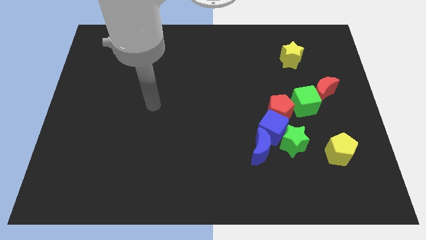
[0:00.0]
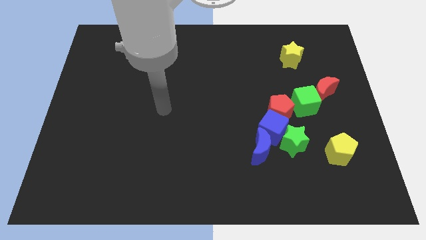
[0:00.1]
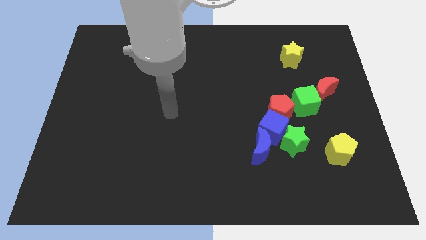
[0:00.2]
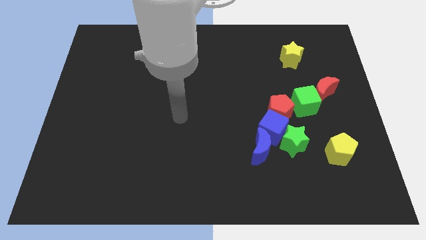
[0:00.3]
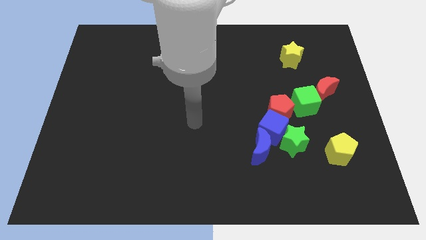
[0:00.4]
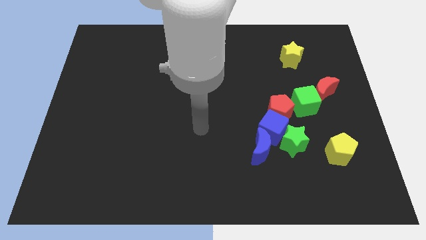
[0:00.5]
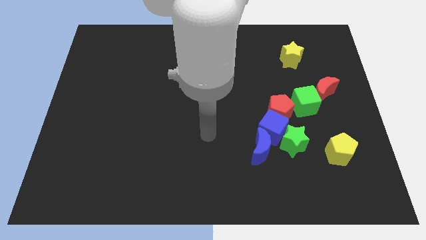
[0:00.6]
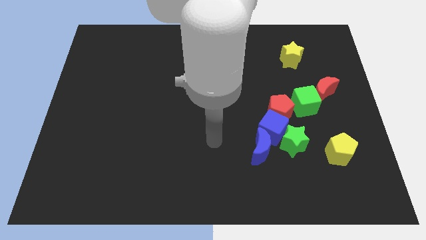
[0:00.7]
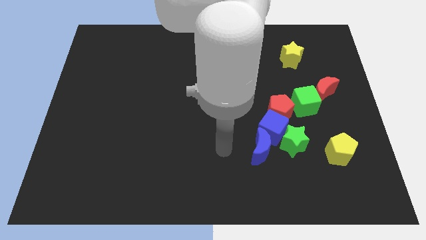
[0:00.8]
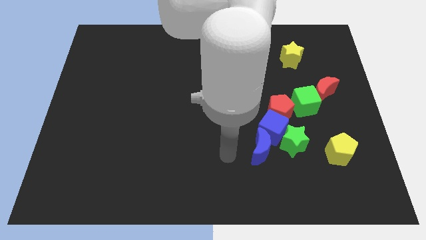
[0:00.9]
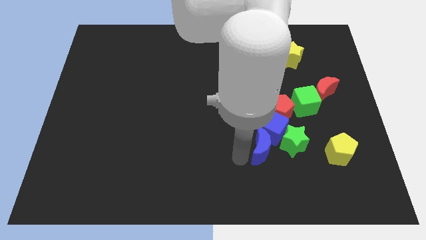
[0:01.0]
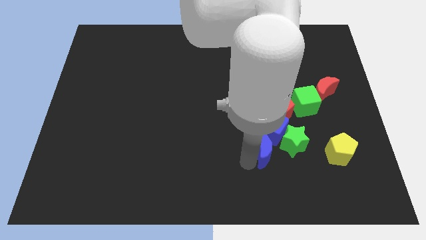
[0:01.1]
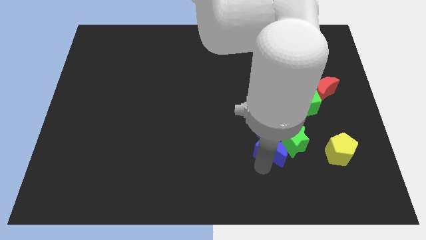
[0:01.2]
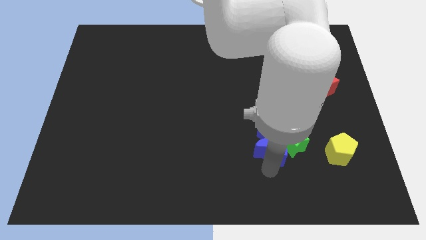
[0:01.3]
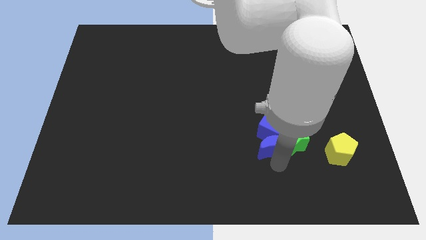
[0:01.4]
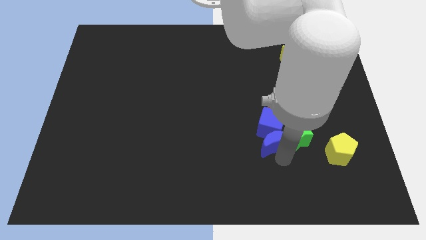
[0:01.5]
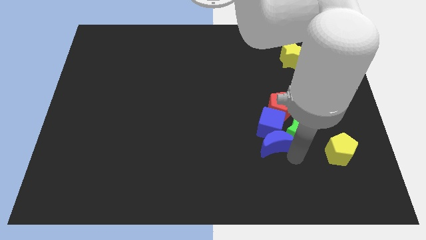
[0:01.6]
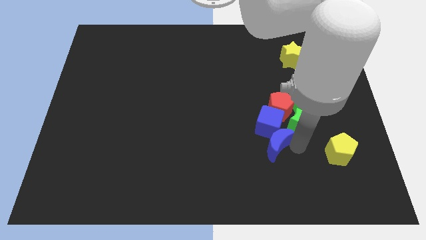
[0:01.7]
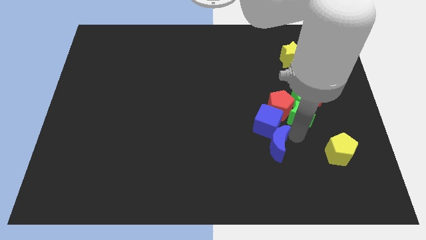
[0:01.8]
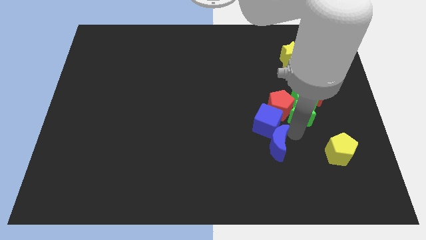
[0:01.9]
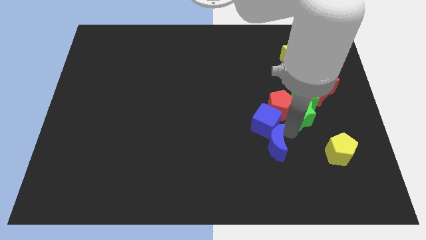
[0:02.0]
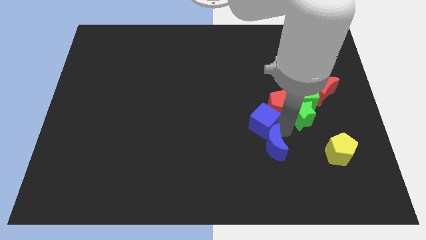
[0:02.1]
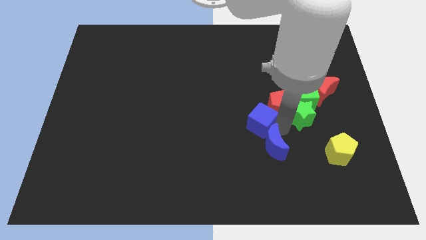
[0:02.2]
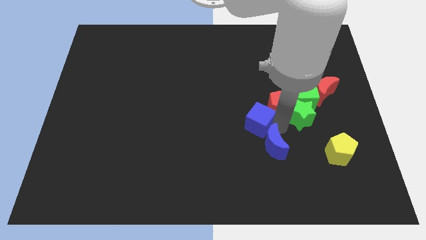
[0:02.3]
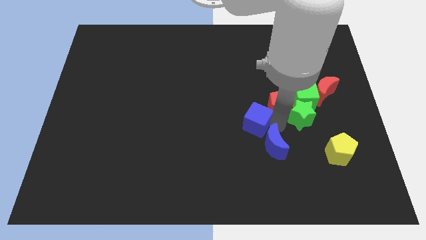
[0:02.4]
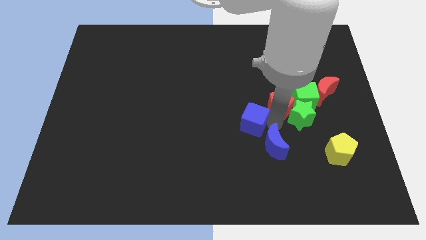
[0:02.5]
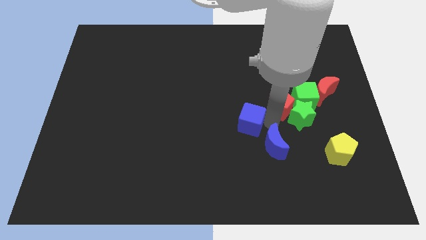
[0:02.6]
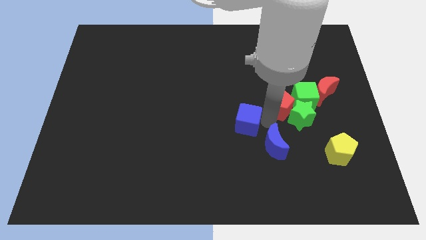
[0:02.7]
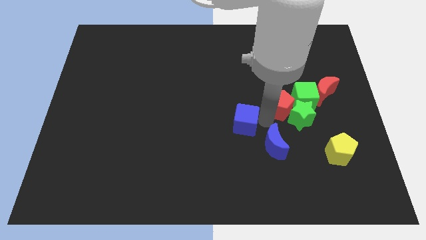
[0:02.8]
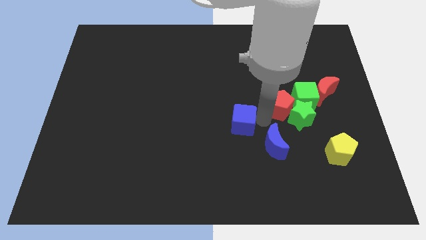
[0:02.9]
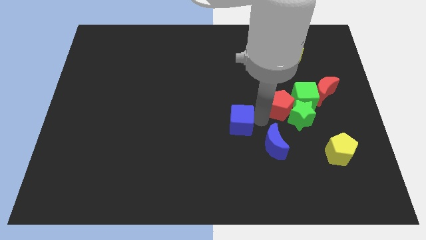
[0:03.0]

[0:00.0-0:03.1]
separate the blue cube from the red pentagon, green star, and blue moon

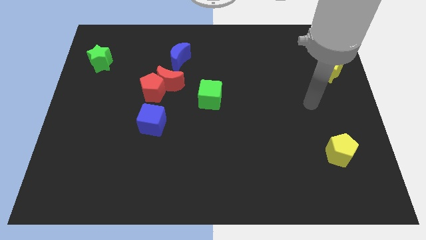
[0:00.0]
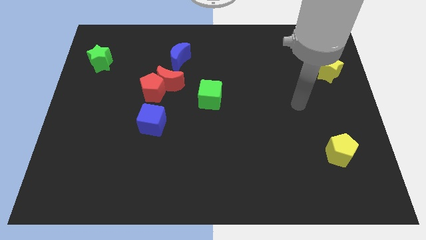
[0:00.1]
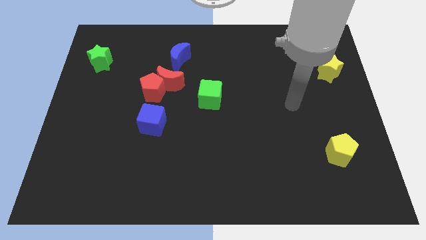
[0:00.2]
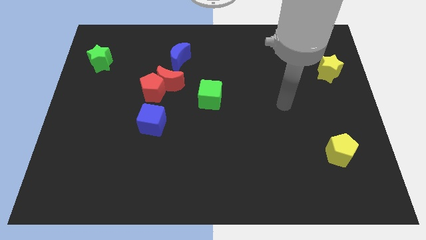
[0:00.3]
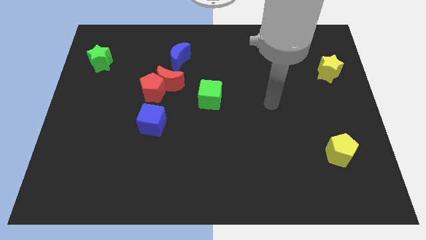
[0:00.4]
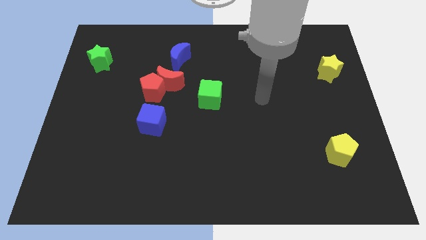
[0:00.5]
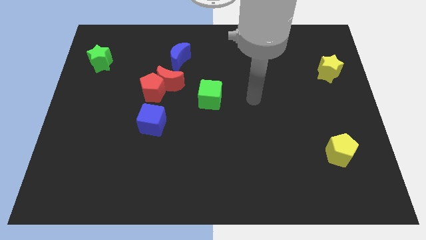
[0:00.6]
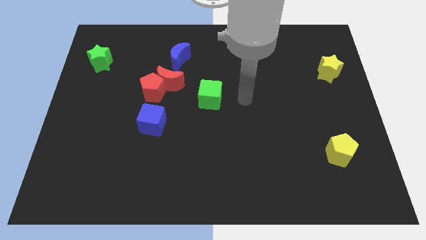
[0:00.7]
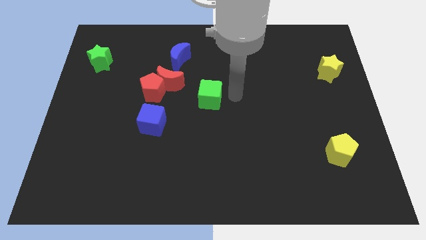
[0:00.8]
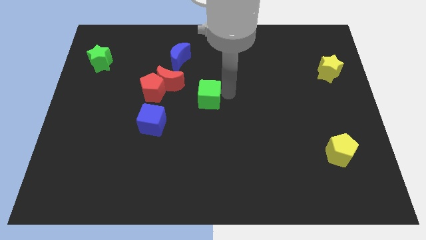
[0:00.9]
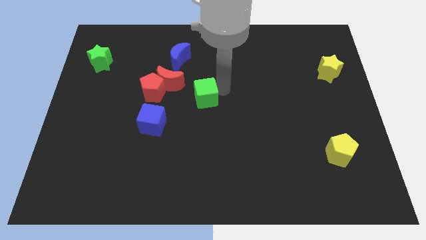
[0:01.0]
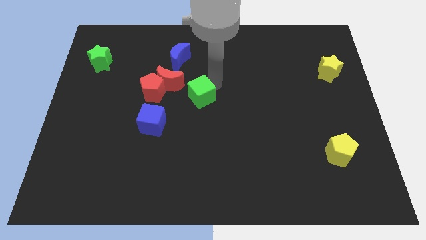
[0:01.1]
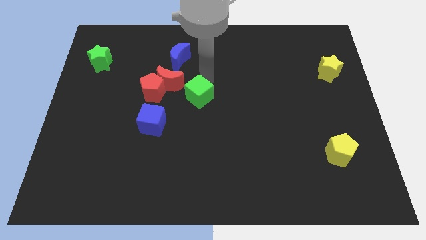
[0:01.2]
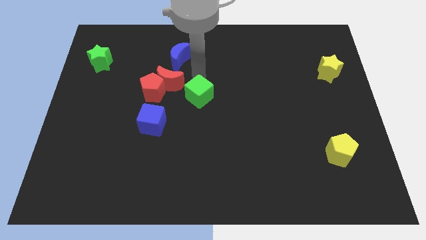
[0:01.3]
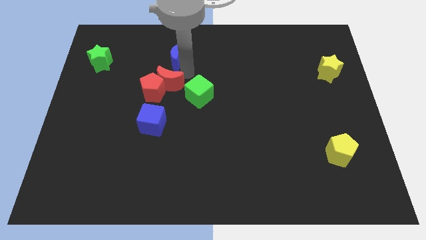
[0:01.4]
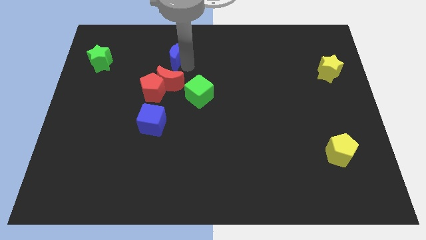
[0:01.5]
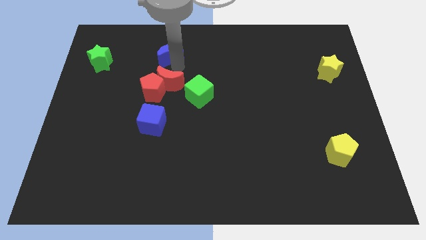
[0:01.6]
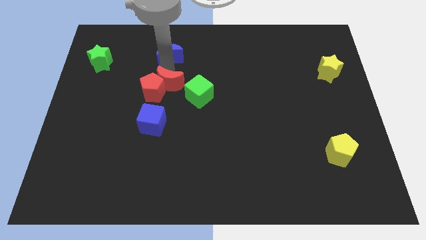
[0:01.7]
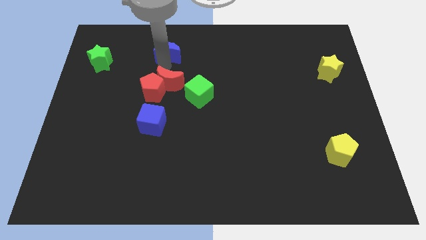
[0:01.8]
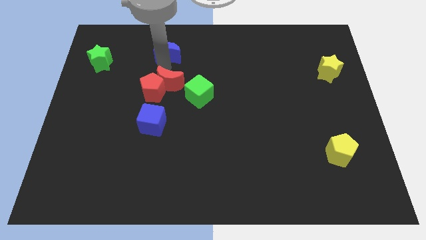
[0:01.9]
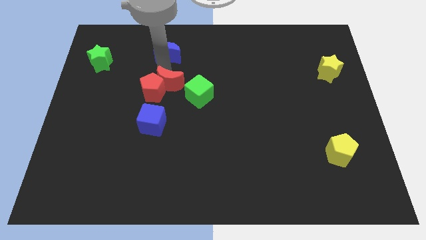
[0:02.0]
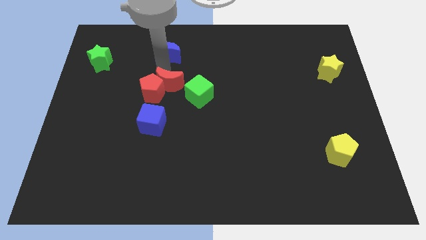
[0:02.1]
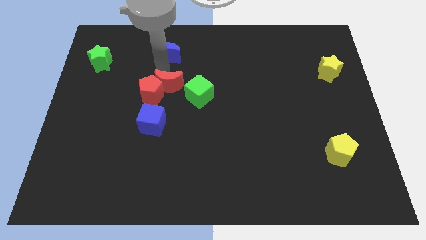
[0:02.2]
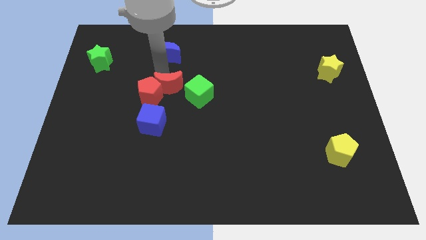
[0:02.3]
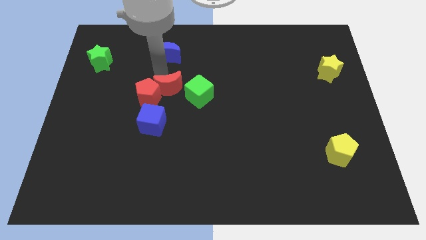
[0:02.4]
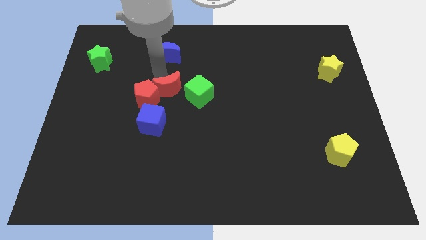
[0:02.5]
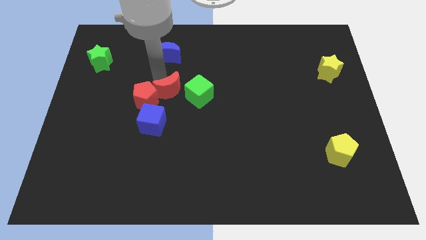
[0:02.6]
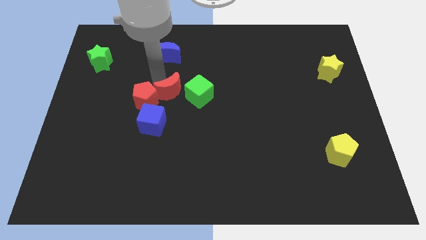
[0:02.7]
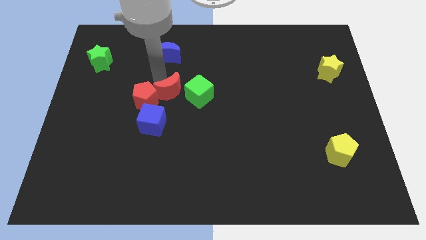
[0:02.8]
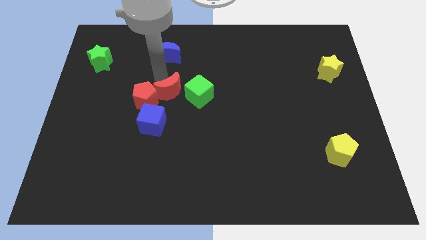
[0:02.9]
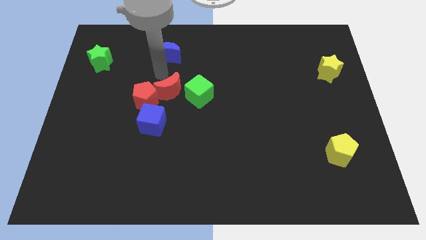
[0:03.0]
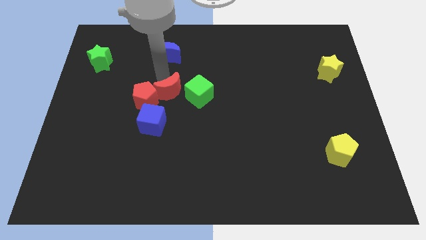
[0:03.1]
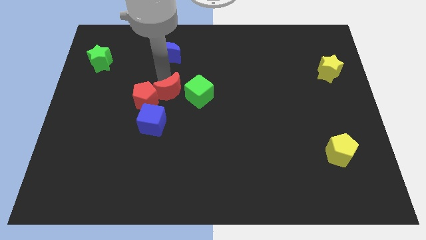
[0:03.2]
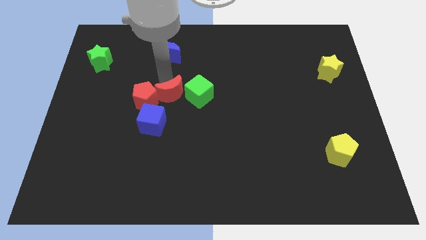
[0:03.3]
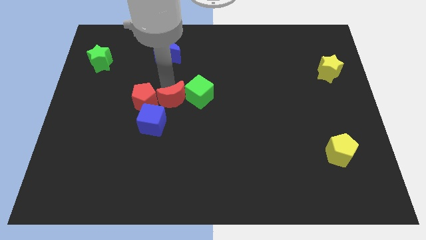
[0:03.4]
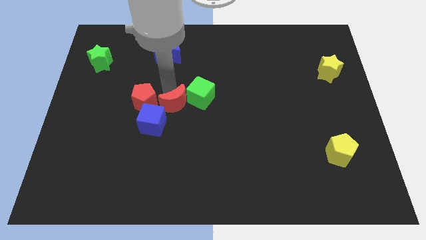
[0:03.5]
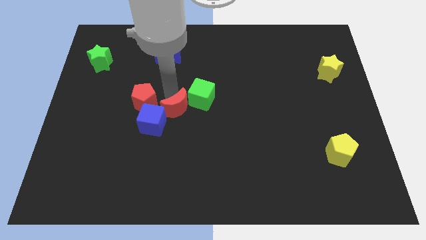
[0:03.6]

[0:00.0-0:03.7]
move the red moon away from the red pentagon and blue moon

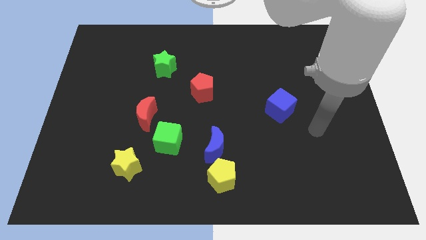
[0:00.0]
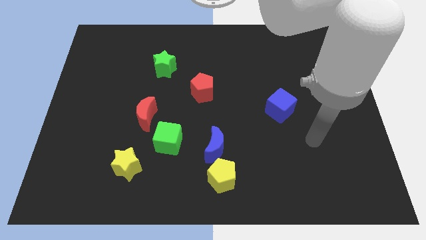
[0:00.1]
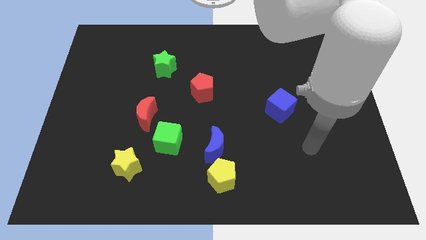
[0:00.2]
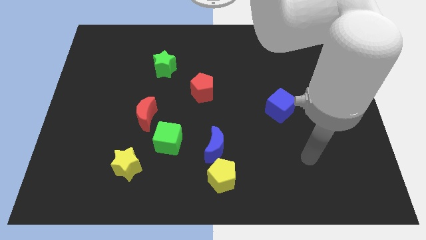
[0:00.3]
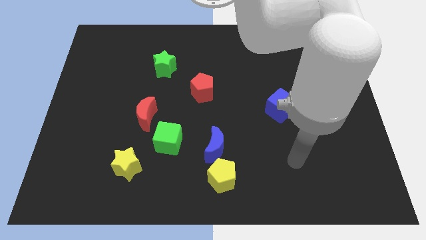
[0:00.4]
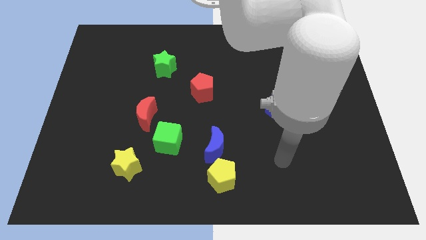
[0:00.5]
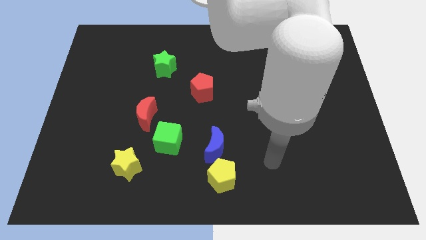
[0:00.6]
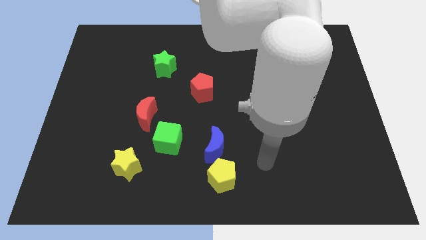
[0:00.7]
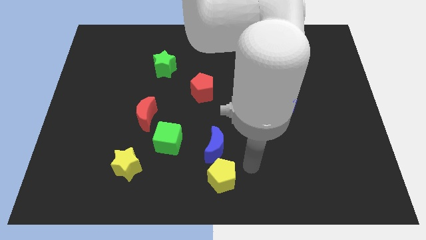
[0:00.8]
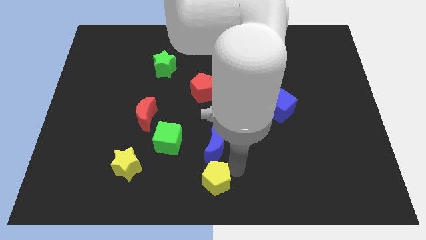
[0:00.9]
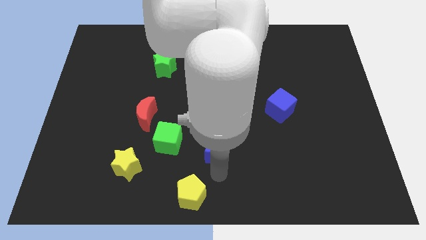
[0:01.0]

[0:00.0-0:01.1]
separate the blue moon from the yellow pentagon

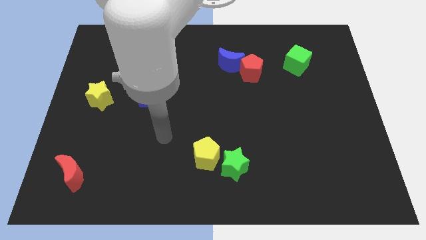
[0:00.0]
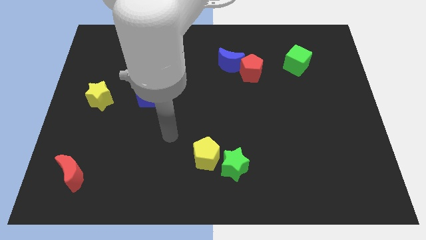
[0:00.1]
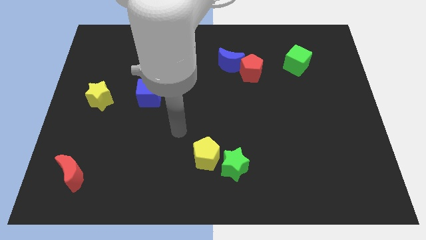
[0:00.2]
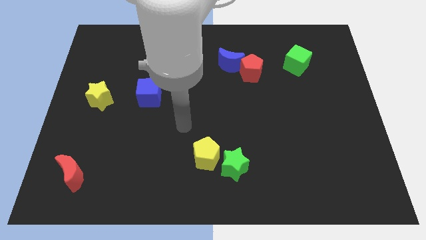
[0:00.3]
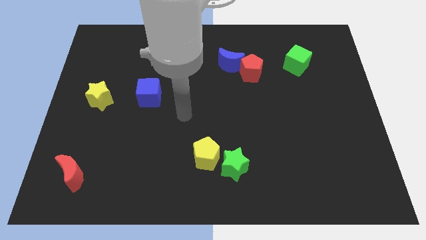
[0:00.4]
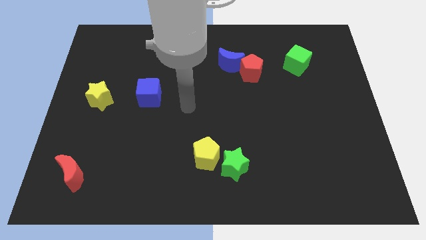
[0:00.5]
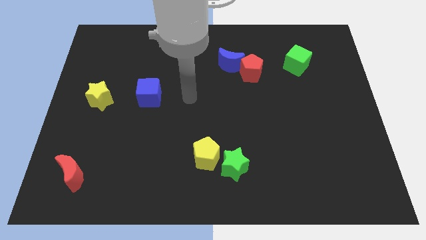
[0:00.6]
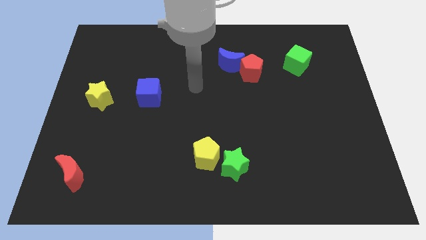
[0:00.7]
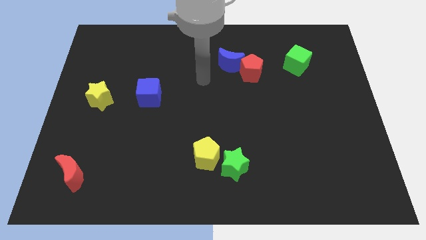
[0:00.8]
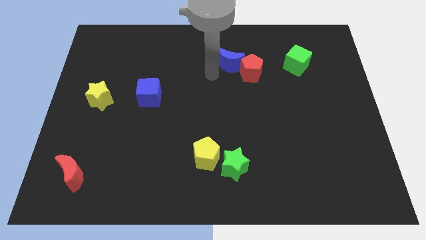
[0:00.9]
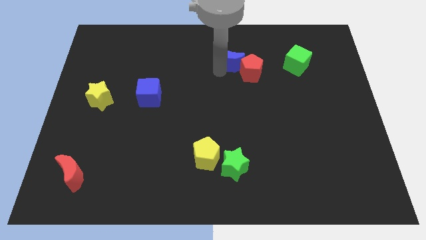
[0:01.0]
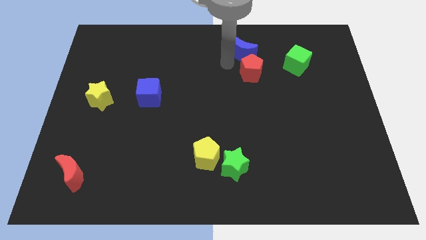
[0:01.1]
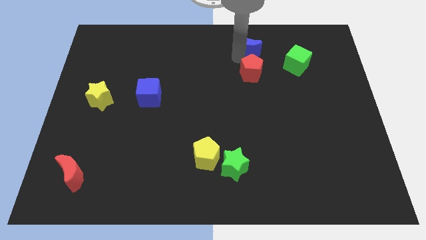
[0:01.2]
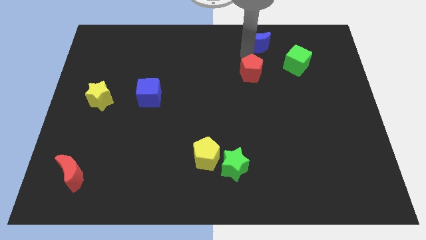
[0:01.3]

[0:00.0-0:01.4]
separate the red pentagon from the blue moon
